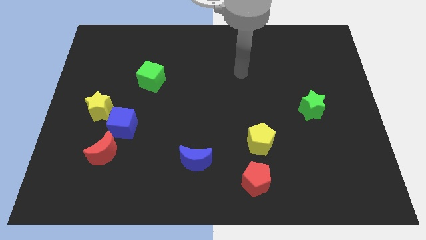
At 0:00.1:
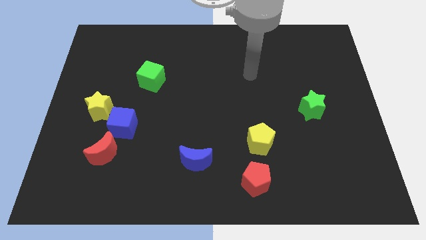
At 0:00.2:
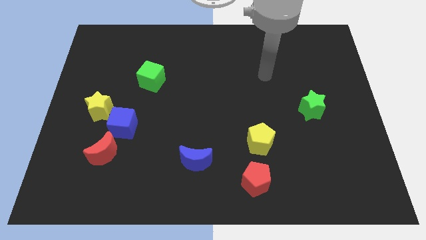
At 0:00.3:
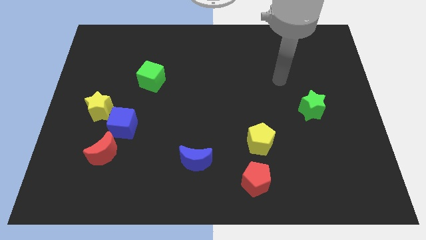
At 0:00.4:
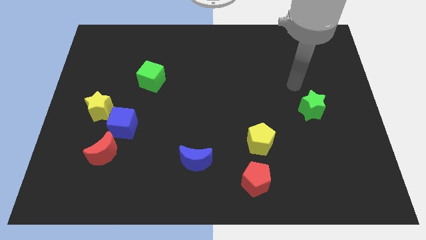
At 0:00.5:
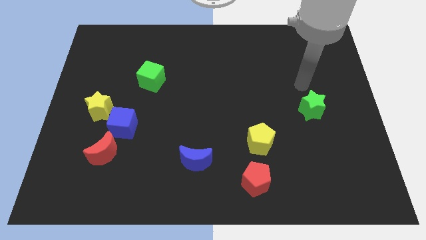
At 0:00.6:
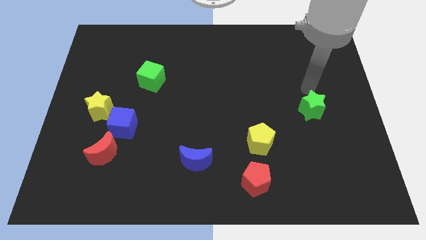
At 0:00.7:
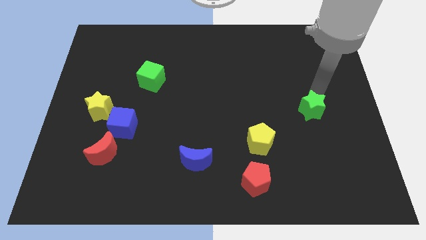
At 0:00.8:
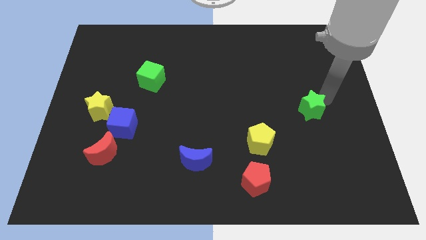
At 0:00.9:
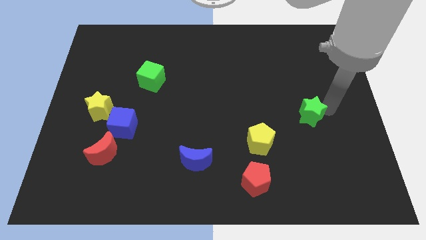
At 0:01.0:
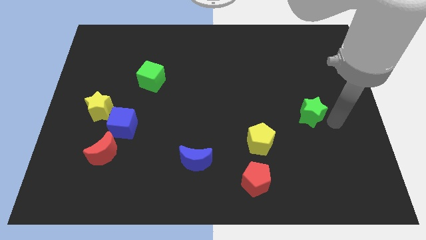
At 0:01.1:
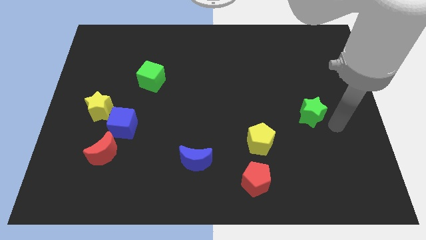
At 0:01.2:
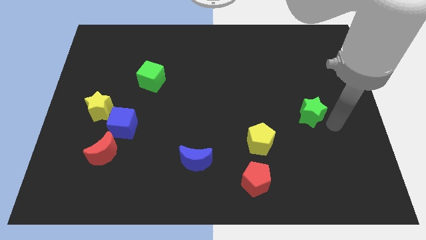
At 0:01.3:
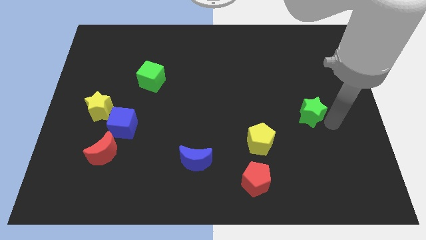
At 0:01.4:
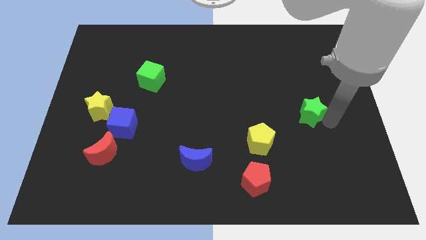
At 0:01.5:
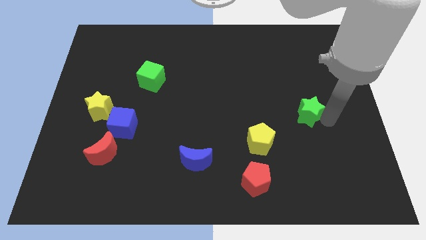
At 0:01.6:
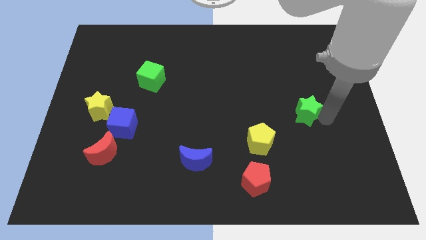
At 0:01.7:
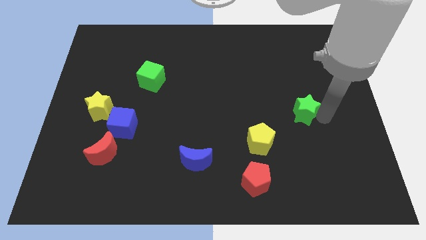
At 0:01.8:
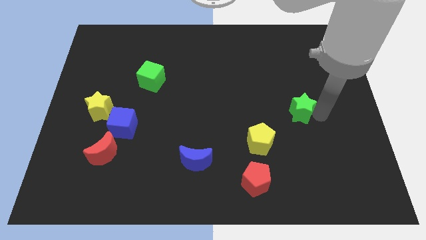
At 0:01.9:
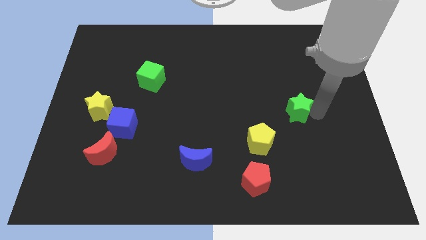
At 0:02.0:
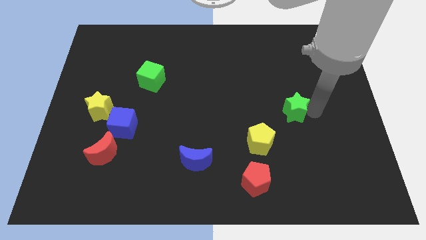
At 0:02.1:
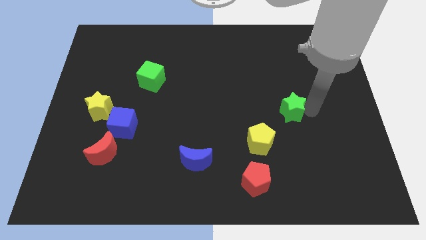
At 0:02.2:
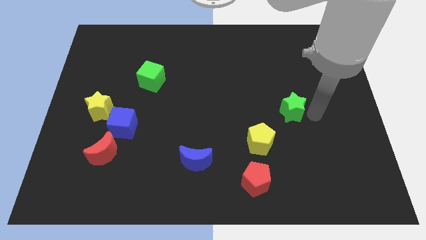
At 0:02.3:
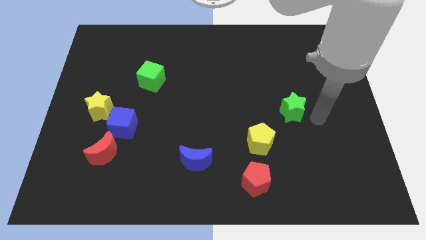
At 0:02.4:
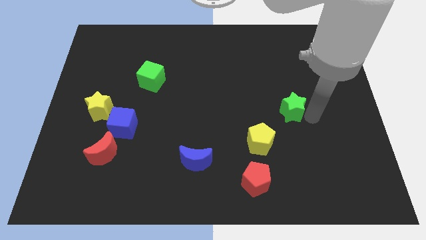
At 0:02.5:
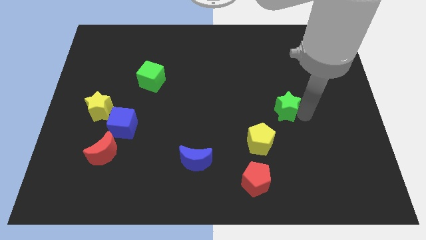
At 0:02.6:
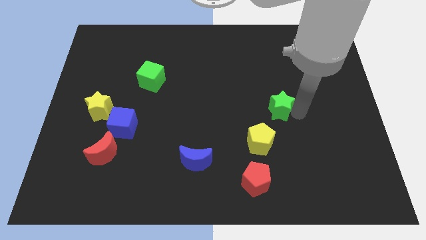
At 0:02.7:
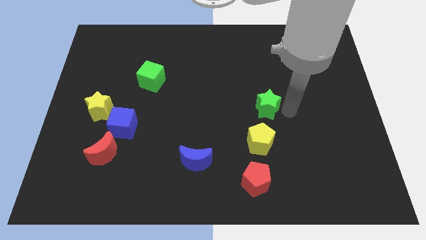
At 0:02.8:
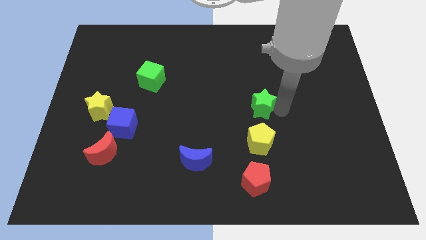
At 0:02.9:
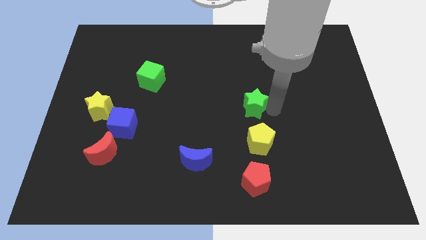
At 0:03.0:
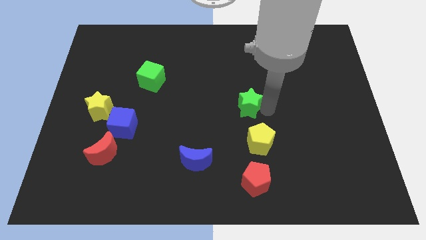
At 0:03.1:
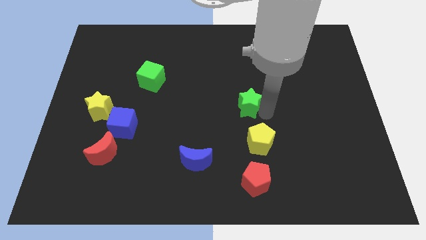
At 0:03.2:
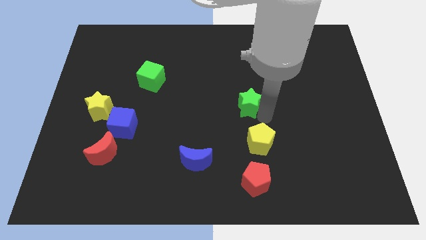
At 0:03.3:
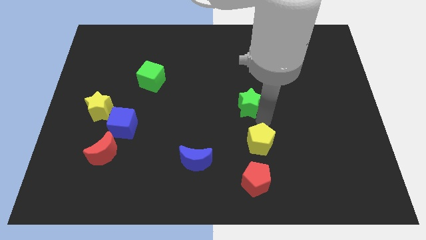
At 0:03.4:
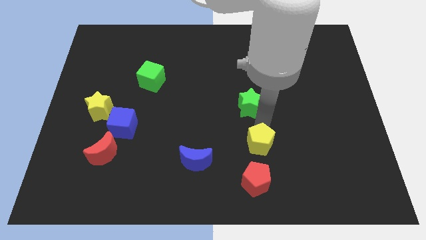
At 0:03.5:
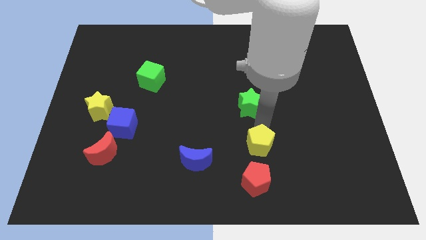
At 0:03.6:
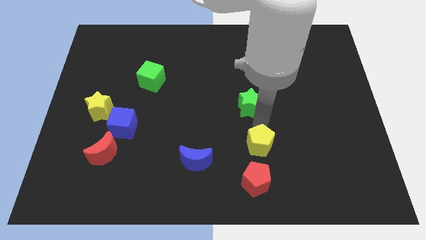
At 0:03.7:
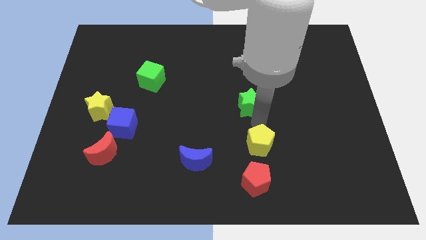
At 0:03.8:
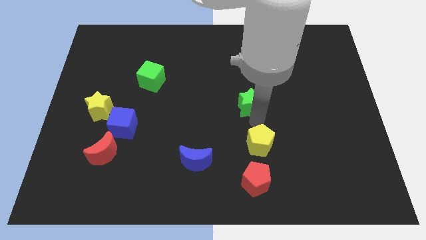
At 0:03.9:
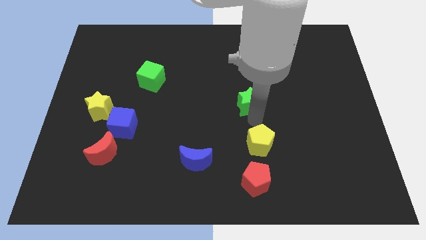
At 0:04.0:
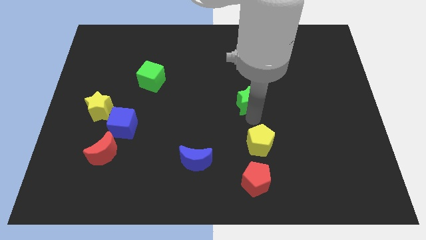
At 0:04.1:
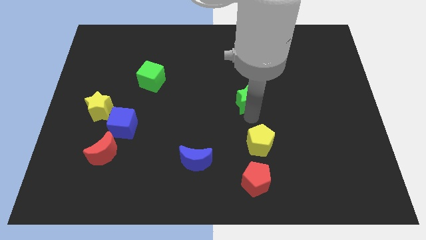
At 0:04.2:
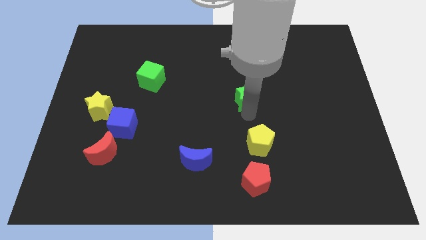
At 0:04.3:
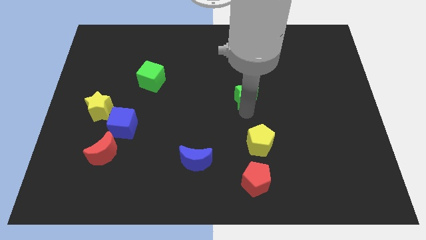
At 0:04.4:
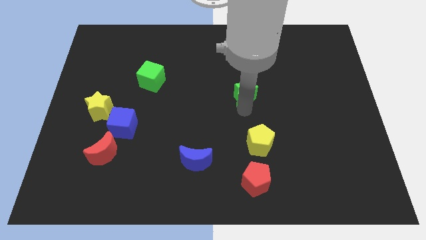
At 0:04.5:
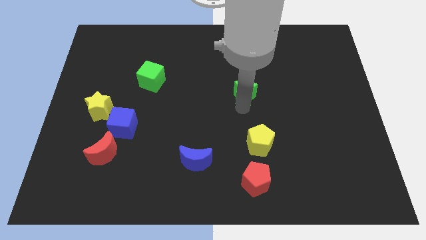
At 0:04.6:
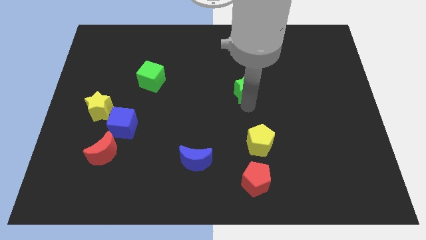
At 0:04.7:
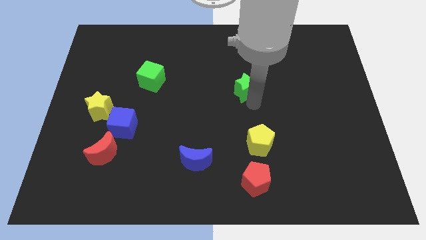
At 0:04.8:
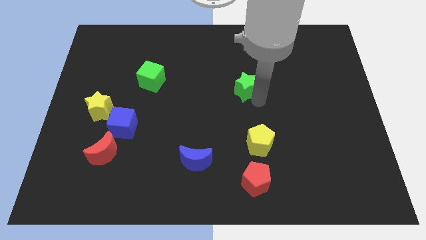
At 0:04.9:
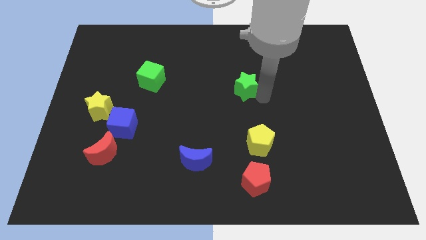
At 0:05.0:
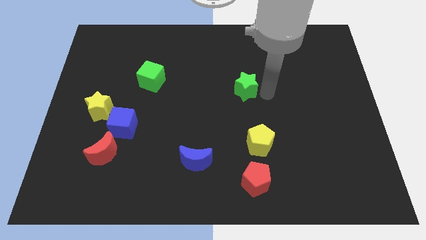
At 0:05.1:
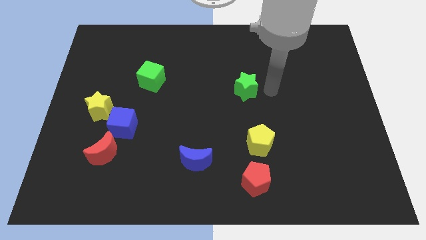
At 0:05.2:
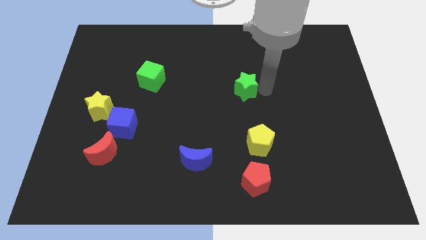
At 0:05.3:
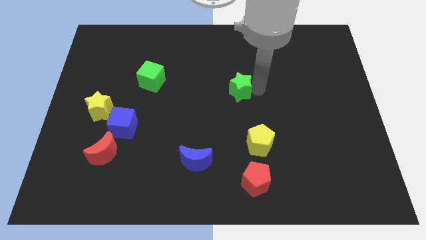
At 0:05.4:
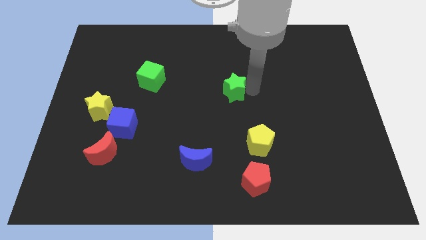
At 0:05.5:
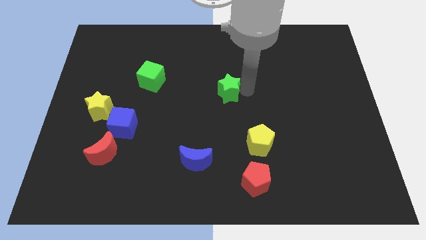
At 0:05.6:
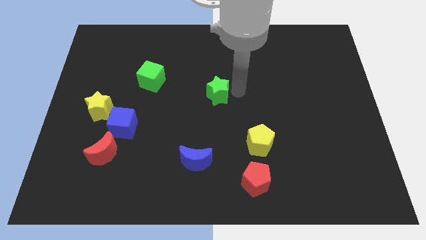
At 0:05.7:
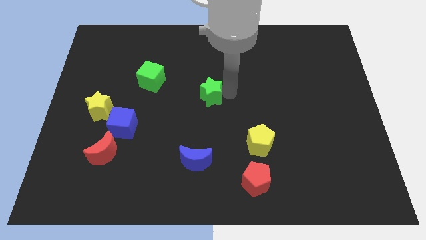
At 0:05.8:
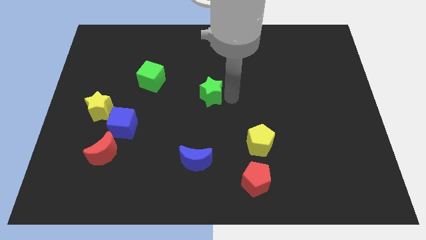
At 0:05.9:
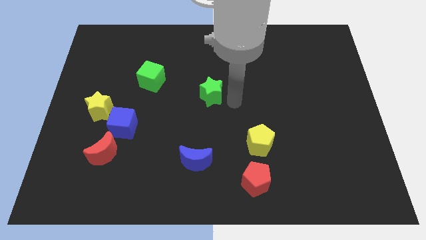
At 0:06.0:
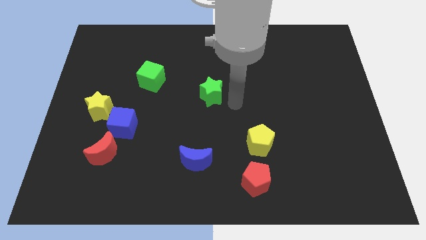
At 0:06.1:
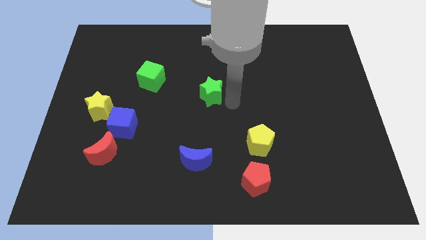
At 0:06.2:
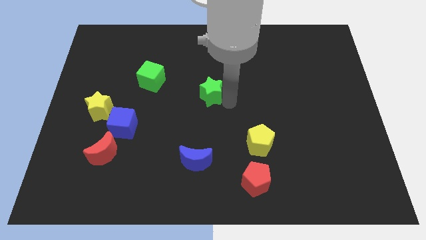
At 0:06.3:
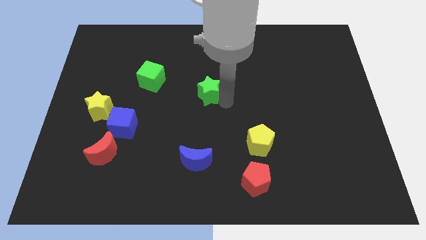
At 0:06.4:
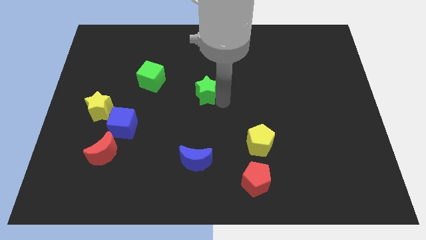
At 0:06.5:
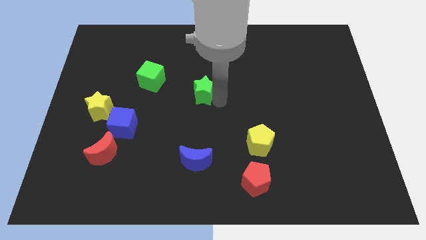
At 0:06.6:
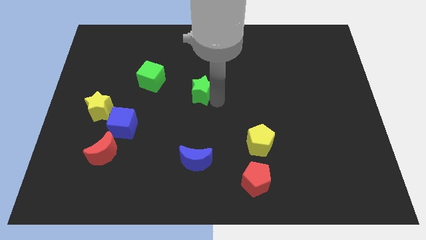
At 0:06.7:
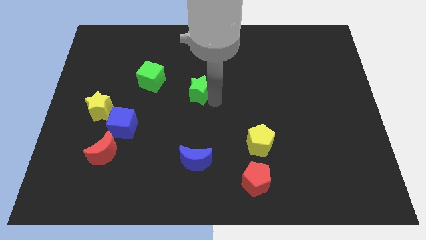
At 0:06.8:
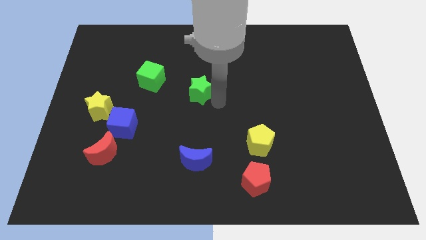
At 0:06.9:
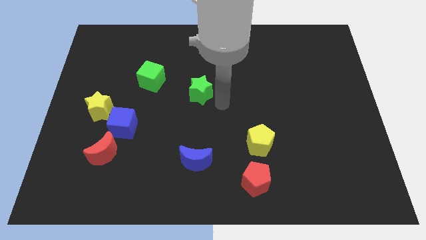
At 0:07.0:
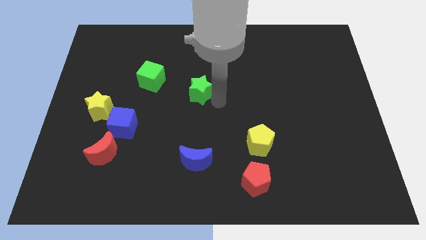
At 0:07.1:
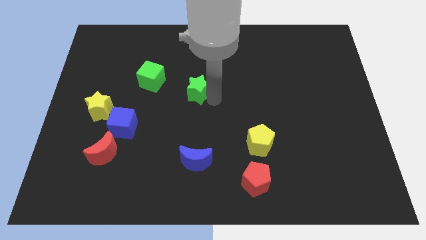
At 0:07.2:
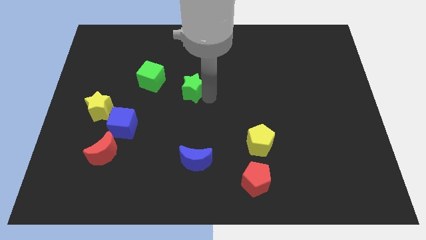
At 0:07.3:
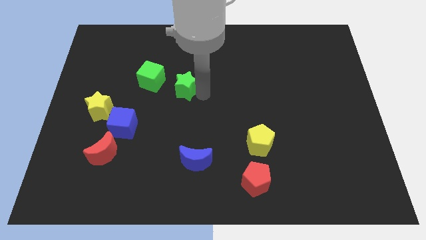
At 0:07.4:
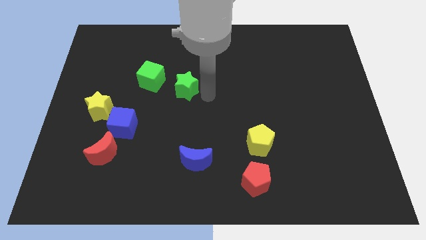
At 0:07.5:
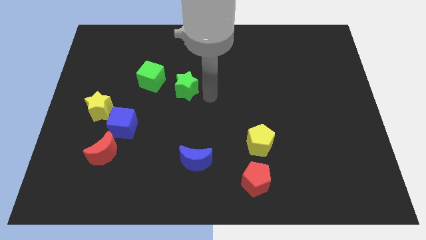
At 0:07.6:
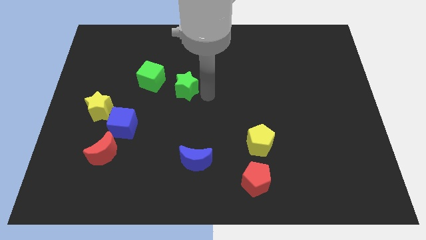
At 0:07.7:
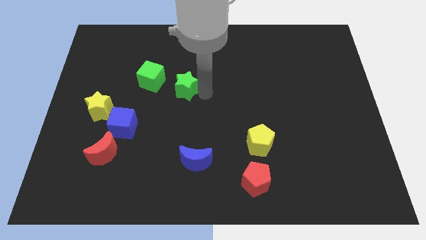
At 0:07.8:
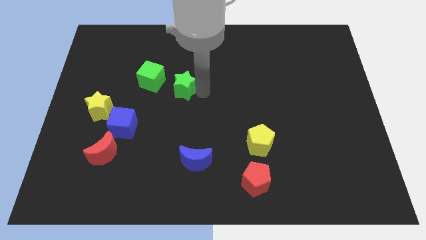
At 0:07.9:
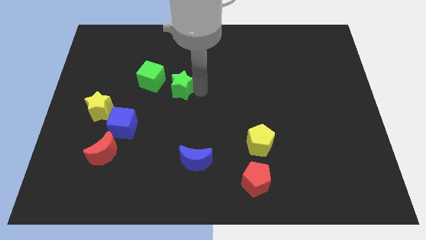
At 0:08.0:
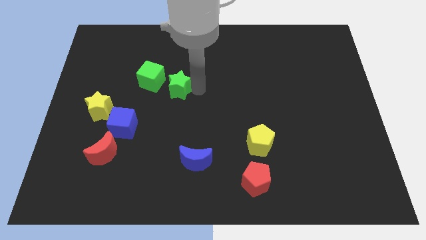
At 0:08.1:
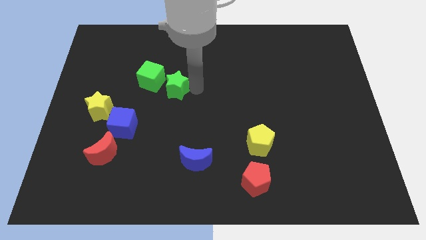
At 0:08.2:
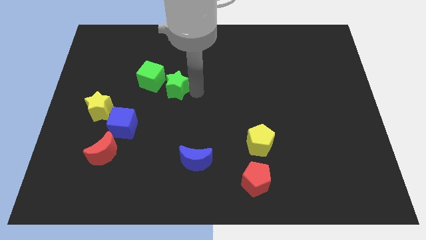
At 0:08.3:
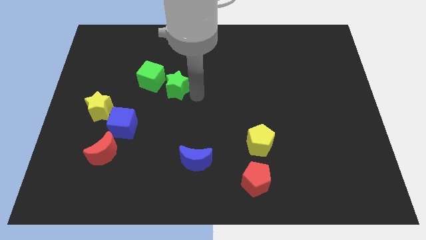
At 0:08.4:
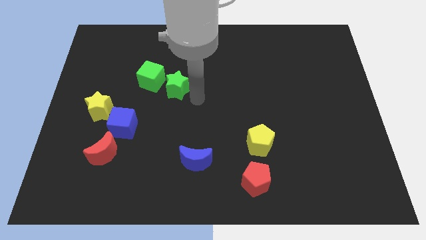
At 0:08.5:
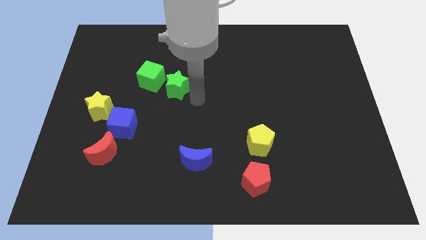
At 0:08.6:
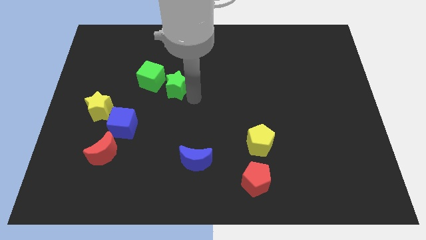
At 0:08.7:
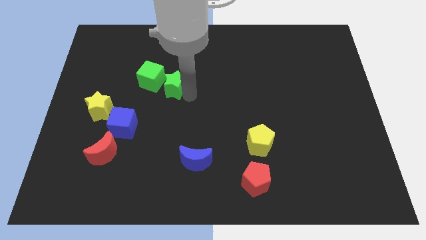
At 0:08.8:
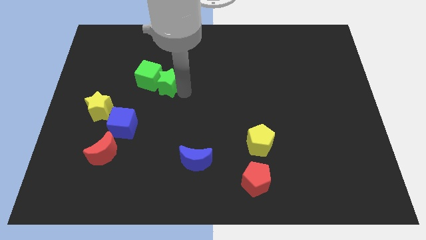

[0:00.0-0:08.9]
slide the green star next to the green cube
